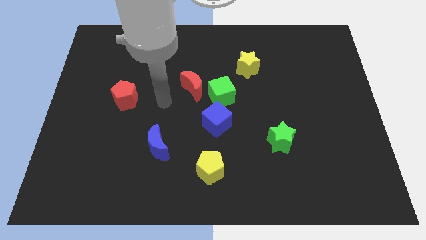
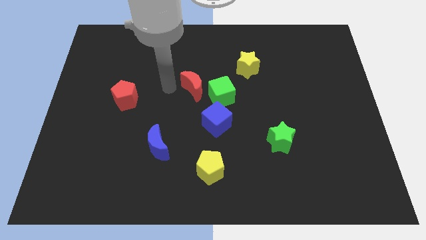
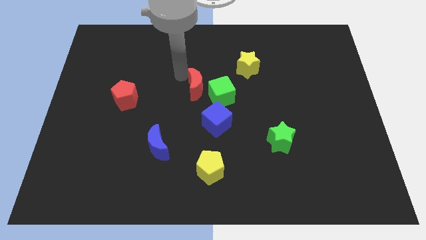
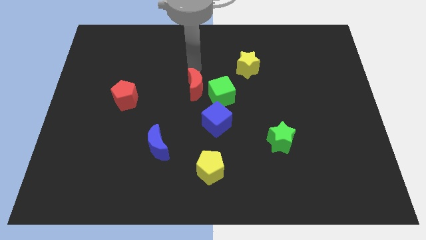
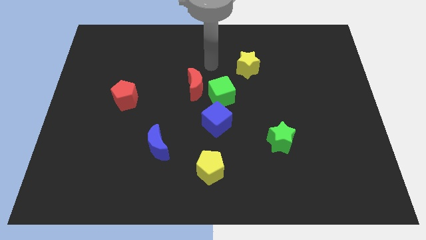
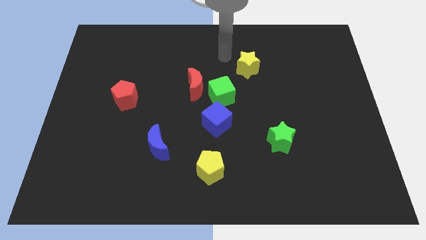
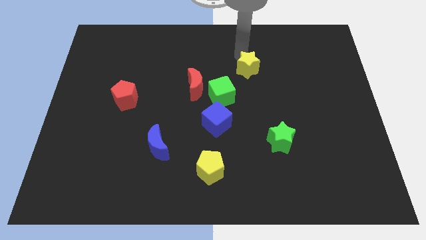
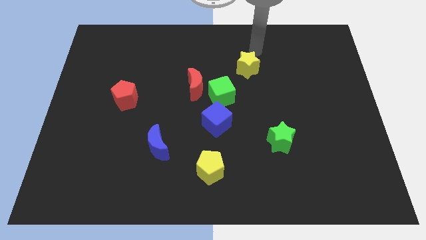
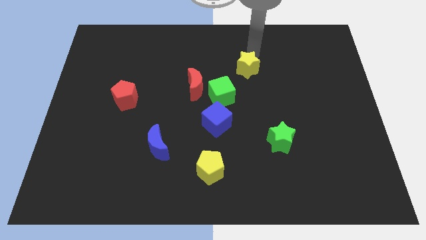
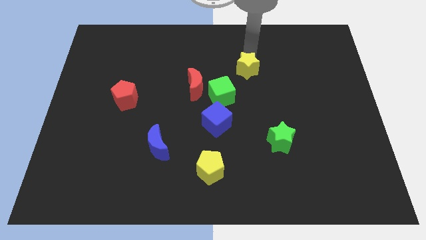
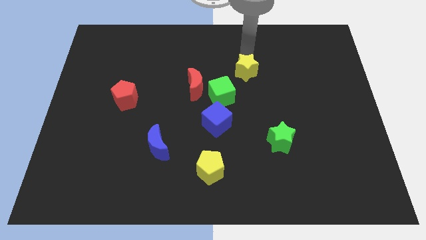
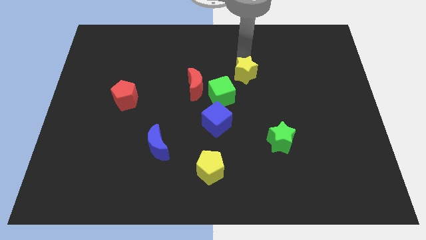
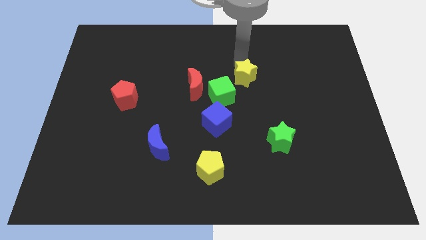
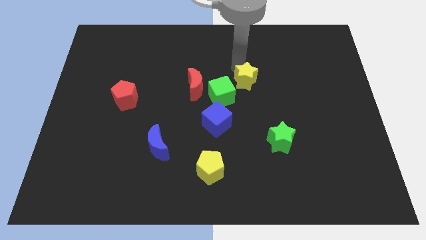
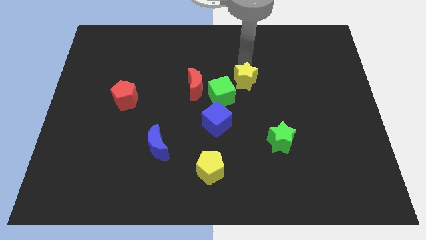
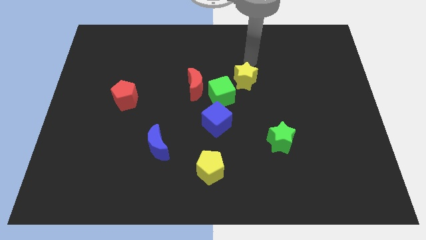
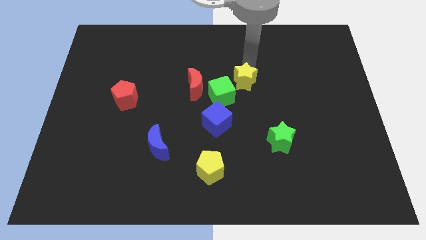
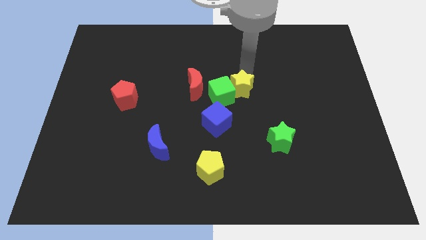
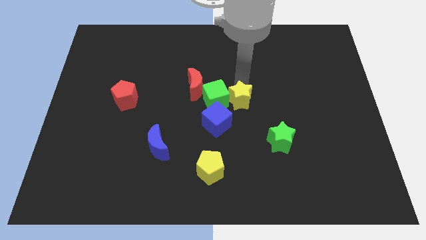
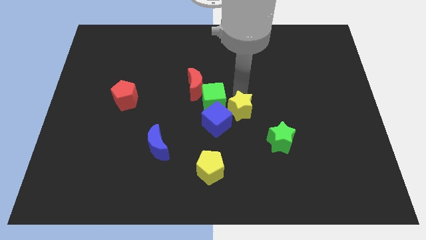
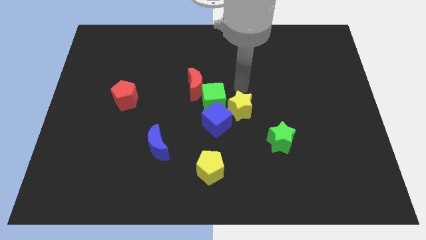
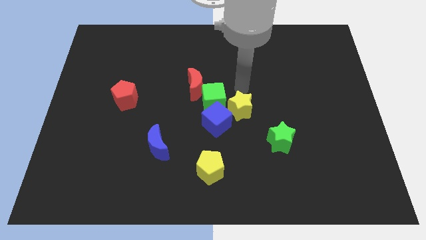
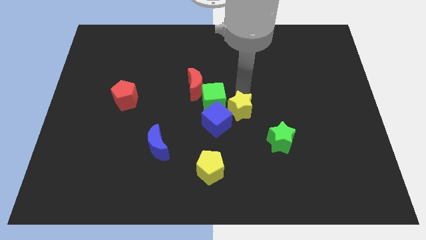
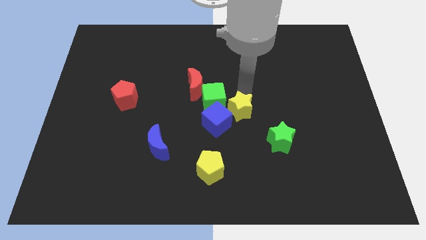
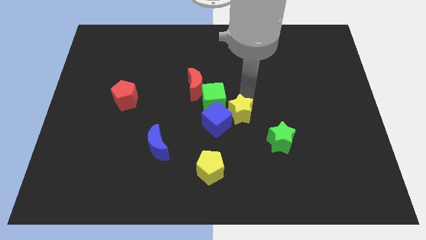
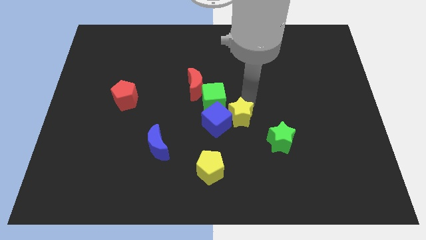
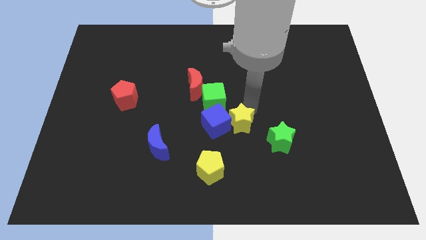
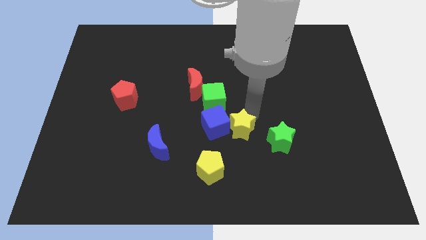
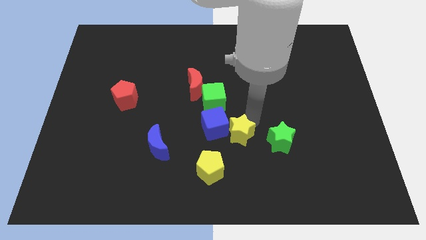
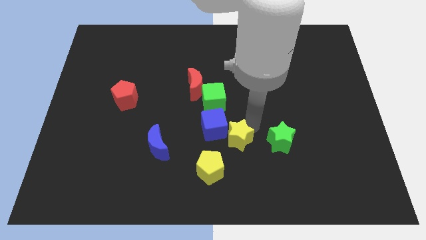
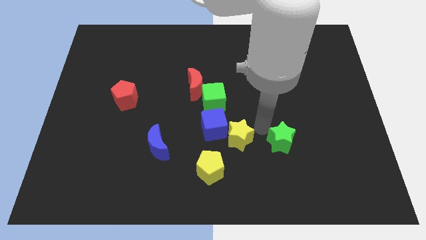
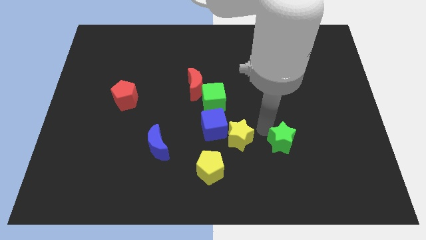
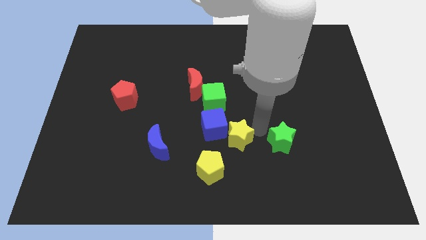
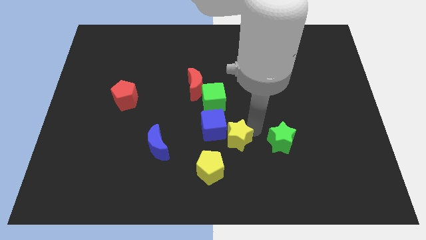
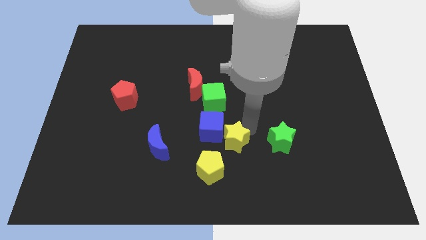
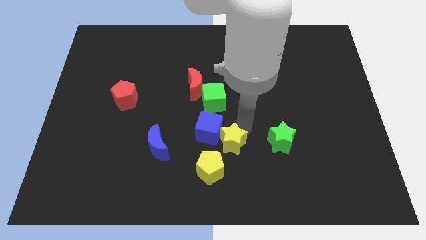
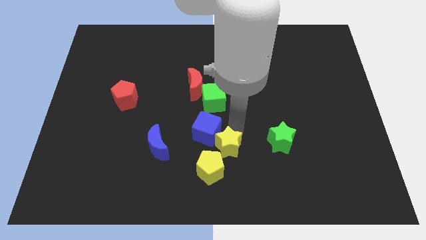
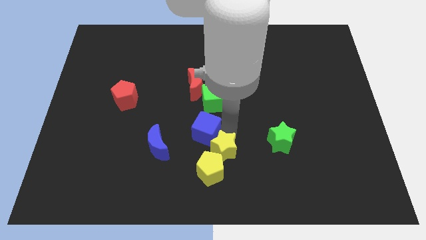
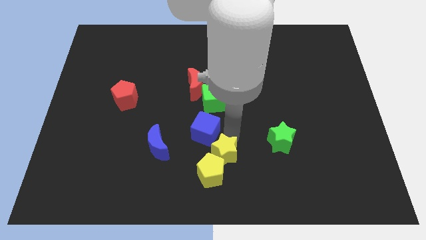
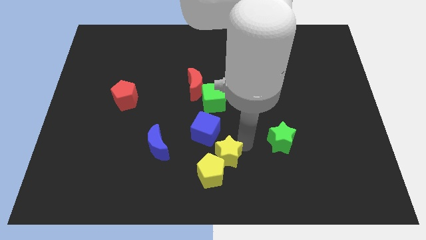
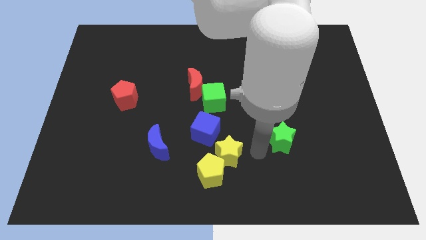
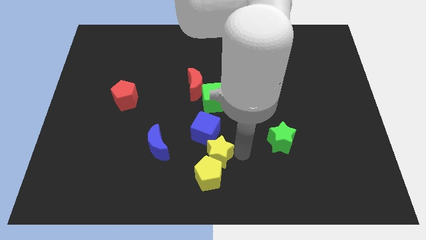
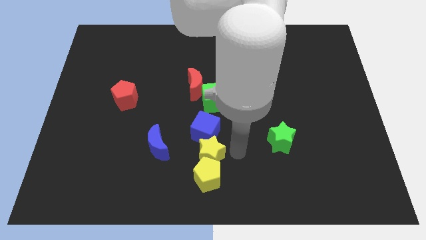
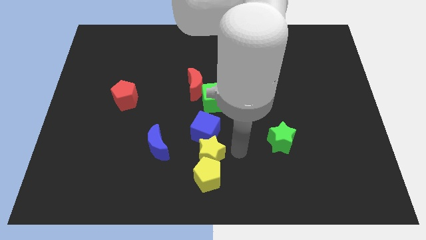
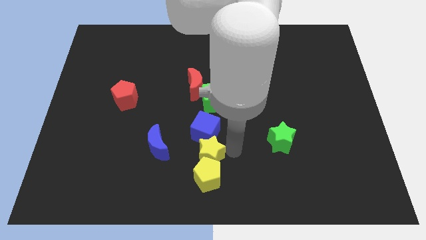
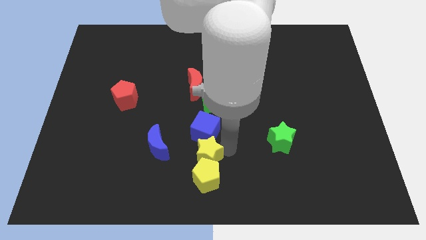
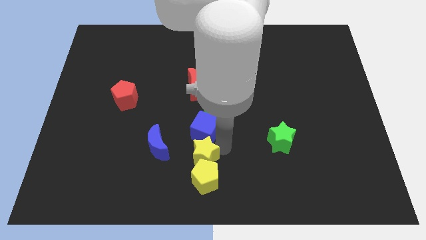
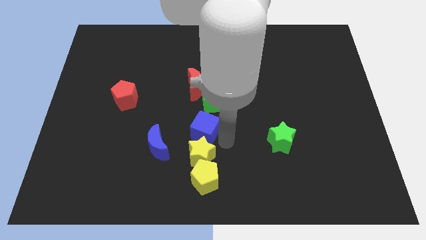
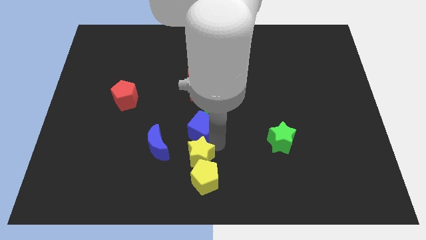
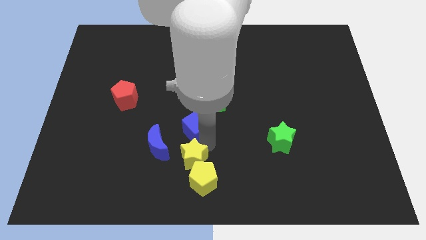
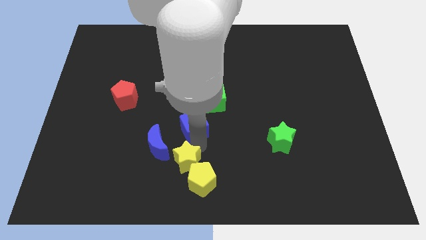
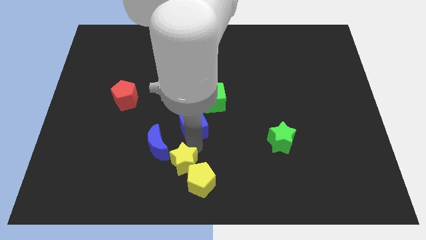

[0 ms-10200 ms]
push the yellow star just left of the yellow pentagon

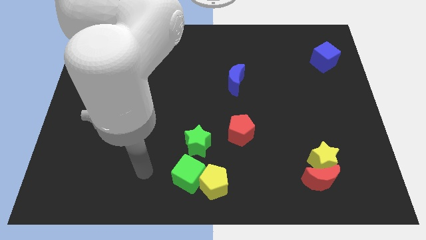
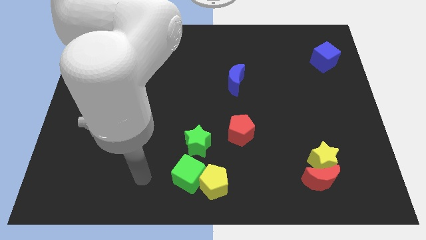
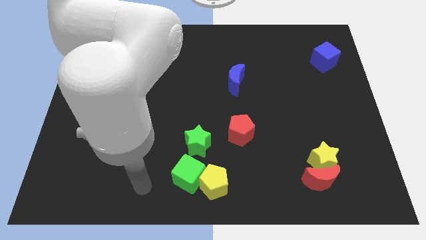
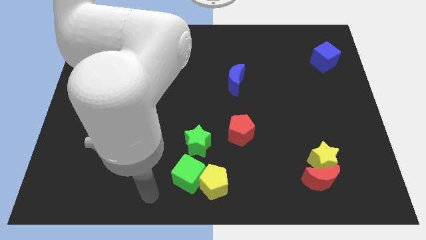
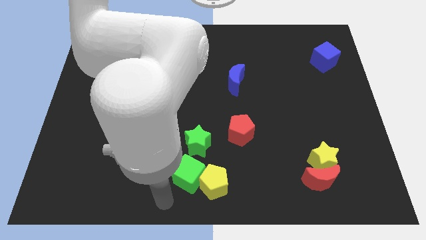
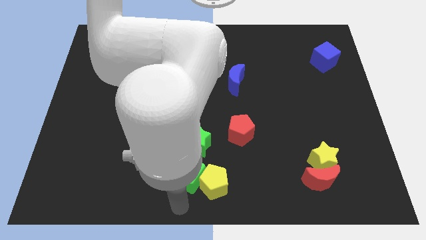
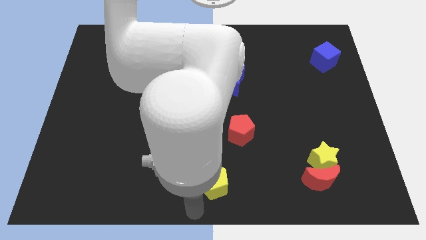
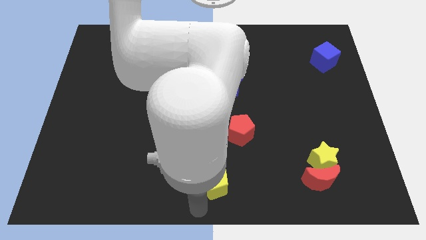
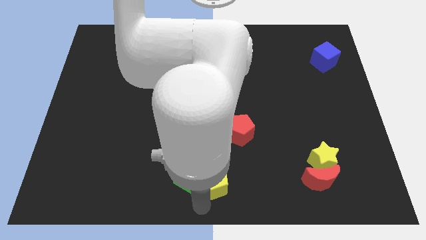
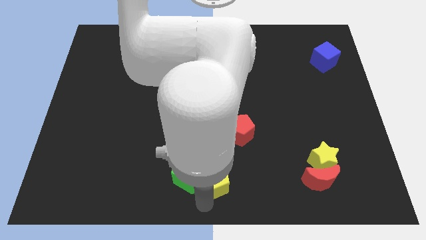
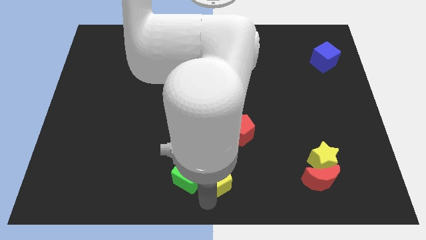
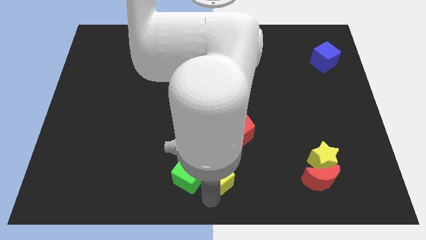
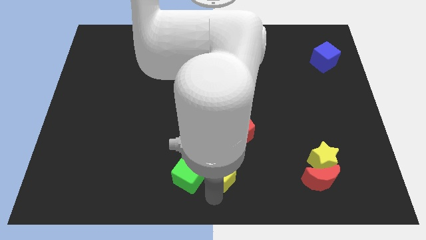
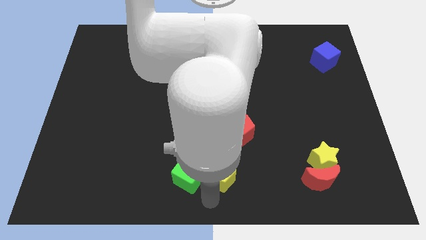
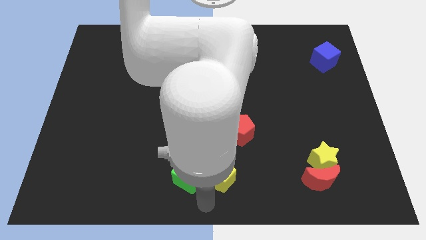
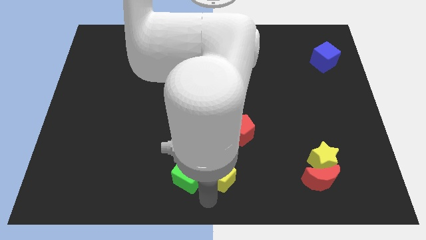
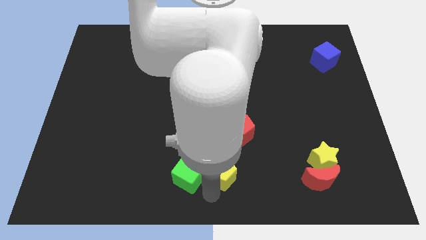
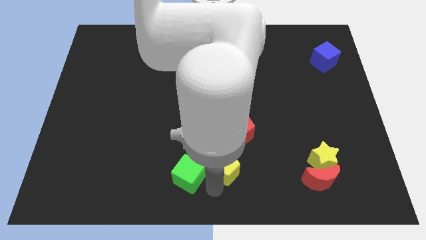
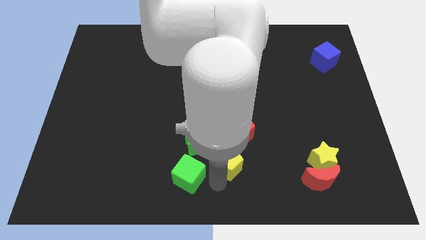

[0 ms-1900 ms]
slide the yellow pentagon to the right side of the green star

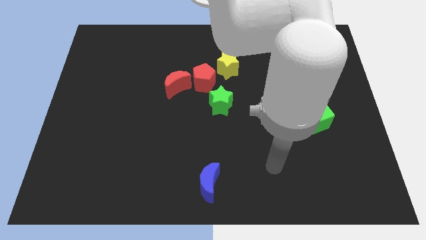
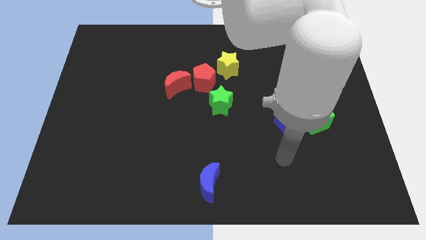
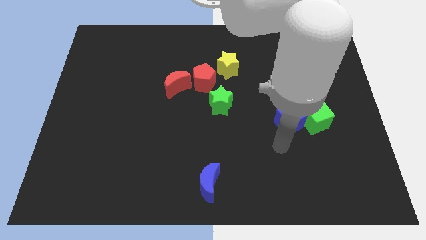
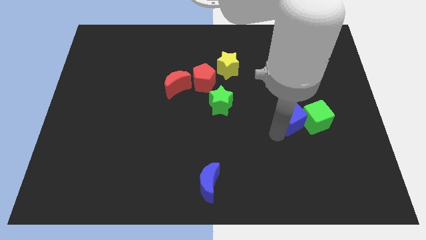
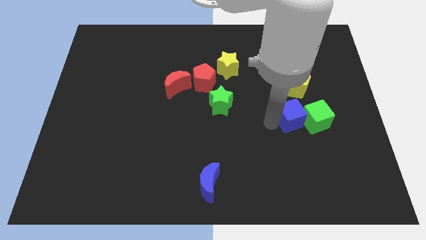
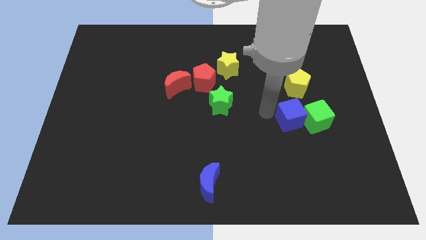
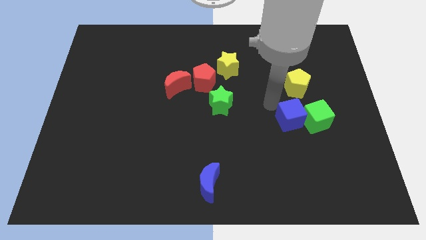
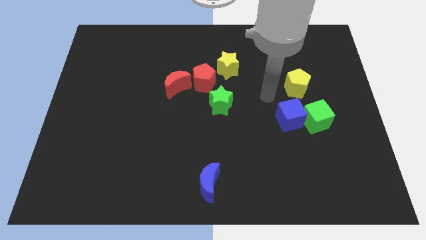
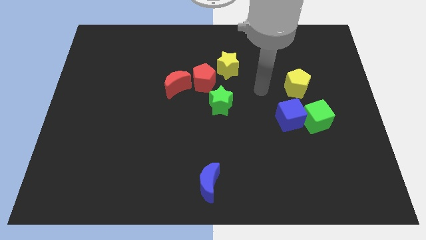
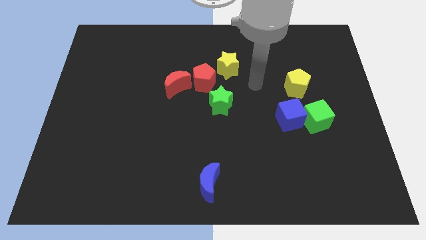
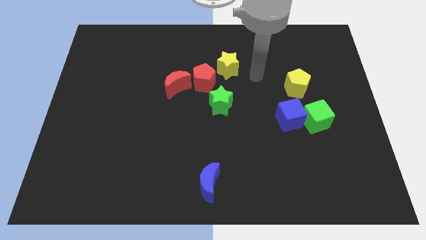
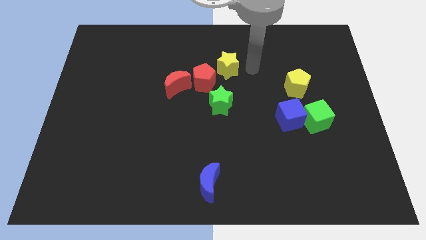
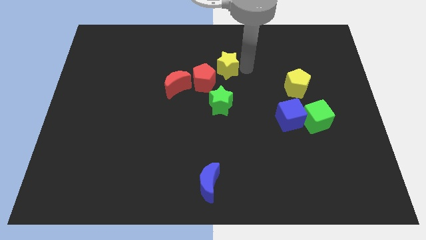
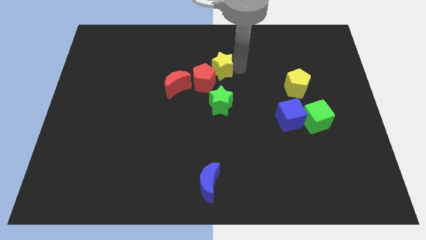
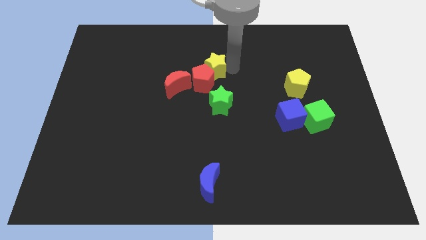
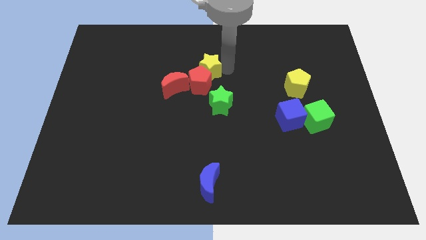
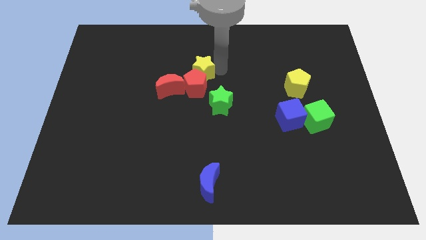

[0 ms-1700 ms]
move the yellow star to the top left of the red pentagon
